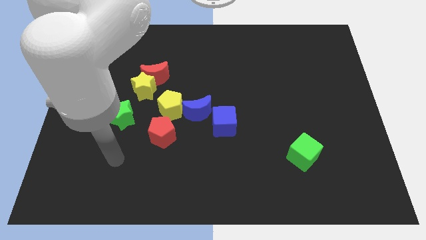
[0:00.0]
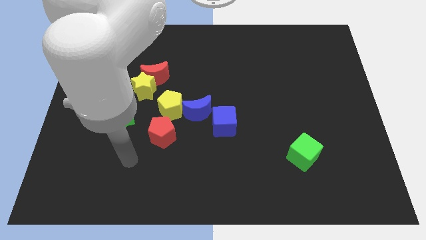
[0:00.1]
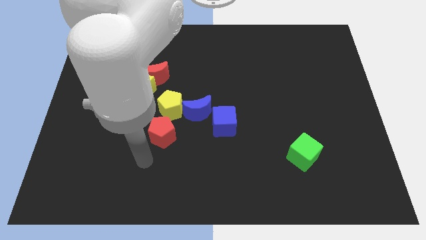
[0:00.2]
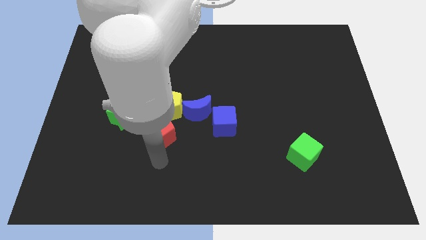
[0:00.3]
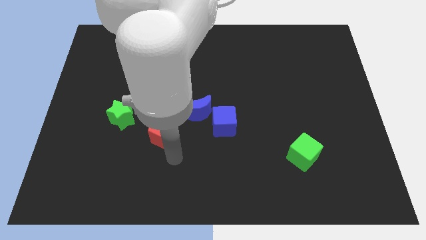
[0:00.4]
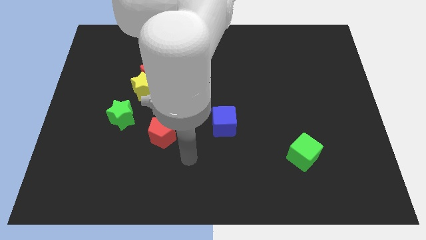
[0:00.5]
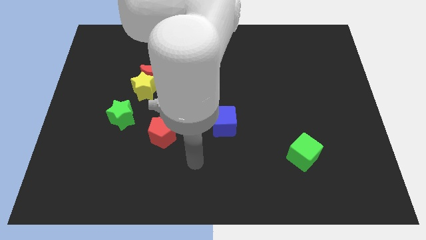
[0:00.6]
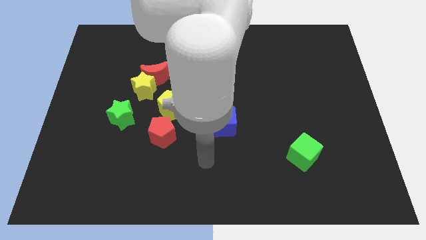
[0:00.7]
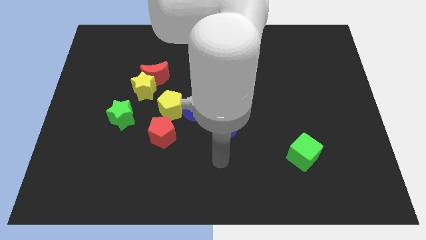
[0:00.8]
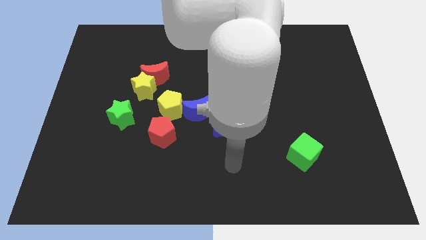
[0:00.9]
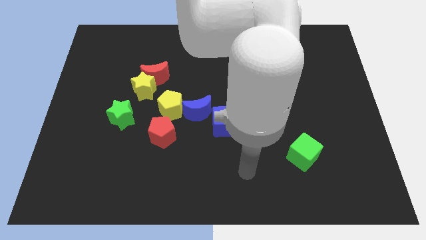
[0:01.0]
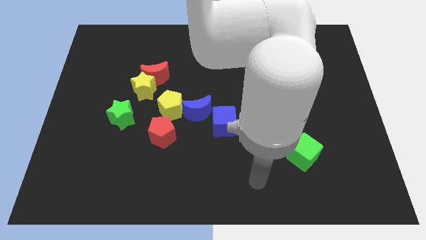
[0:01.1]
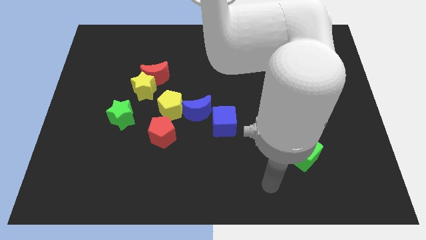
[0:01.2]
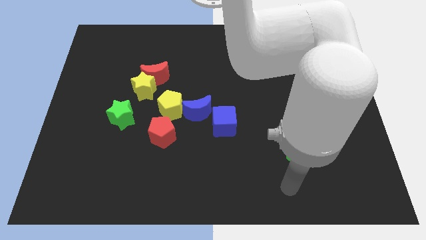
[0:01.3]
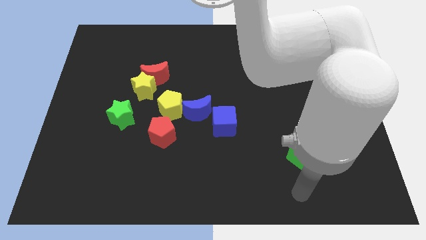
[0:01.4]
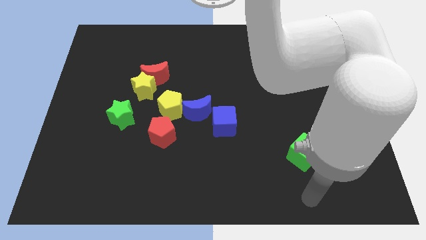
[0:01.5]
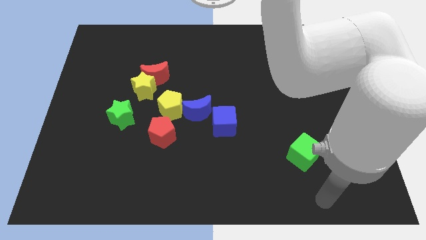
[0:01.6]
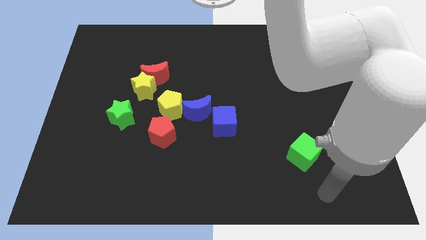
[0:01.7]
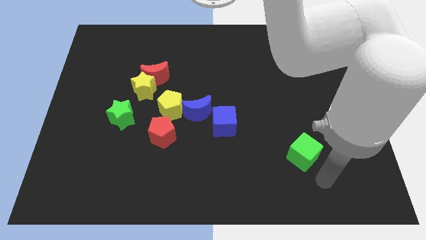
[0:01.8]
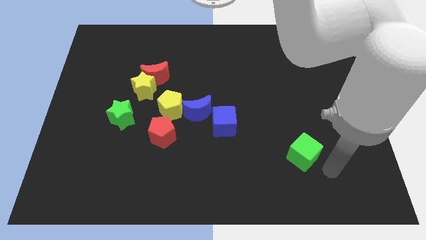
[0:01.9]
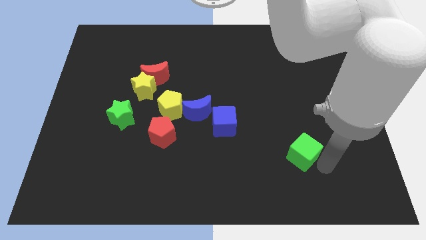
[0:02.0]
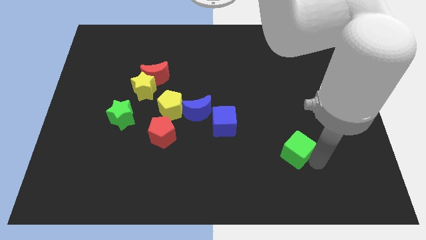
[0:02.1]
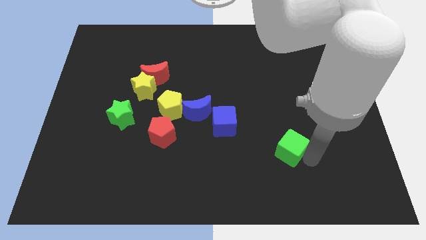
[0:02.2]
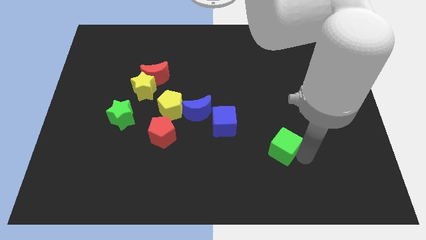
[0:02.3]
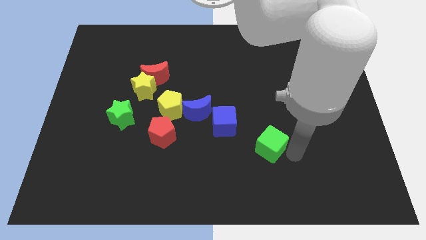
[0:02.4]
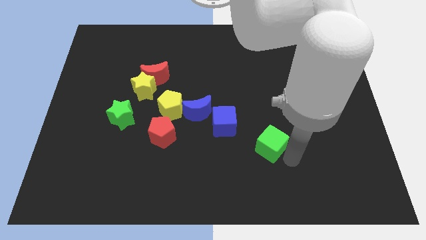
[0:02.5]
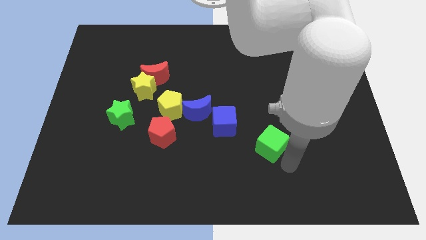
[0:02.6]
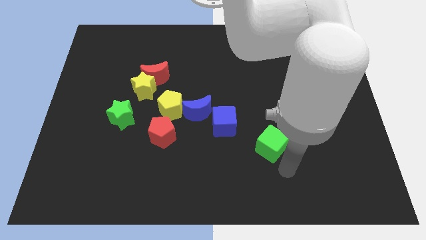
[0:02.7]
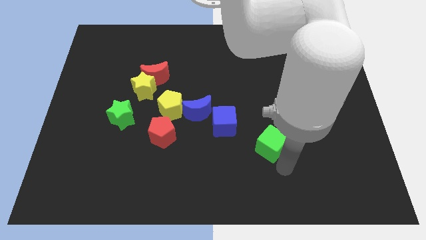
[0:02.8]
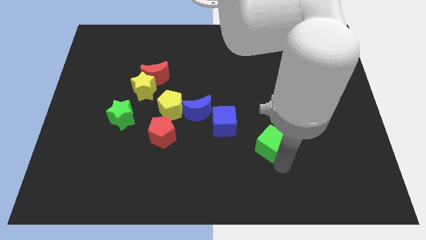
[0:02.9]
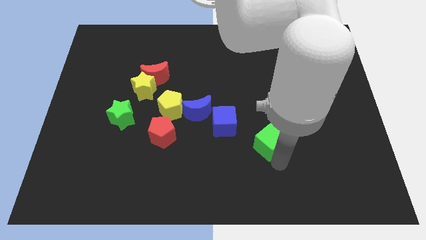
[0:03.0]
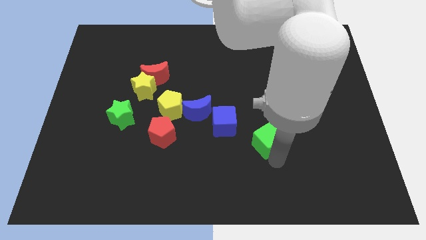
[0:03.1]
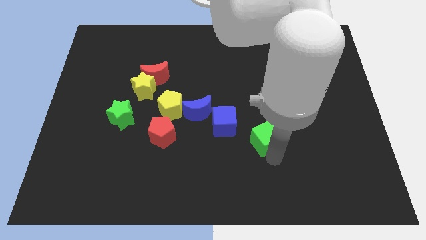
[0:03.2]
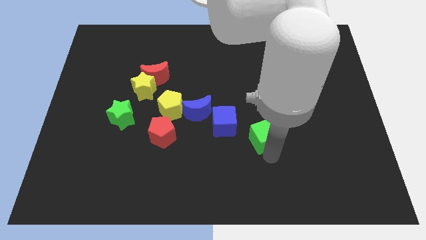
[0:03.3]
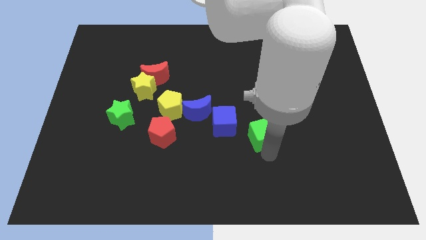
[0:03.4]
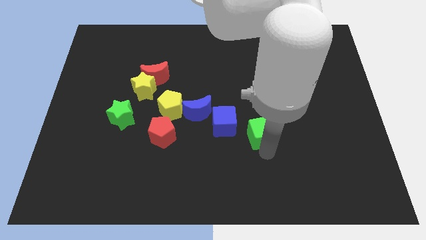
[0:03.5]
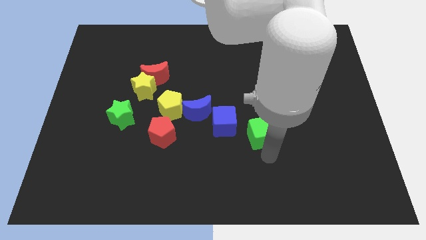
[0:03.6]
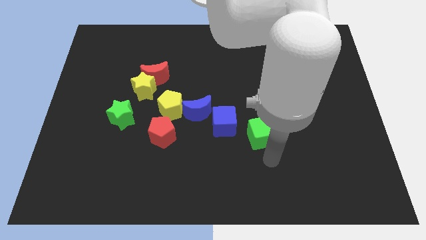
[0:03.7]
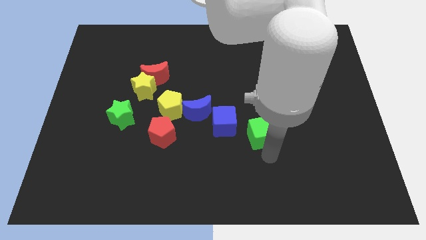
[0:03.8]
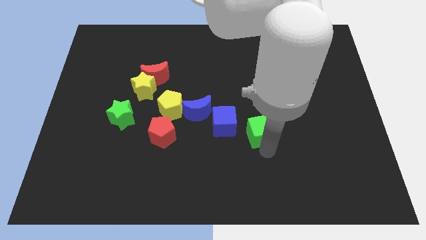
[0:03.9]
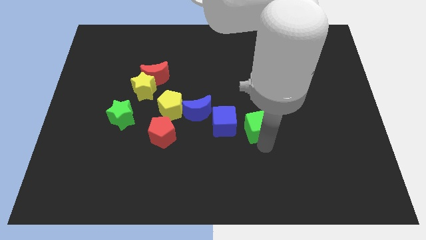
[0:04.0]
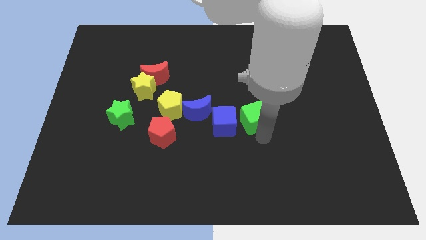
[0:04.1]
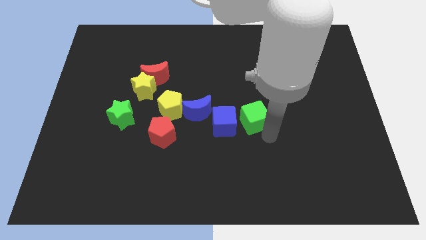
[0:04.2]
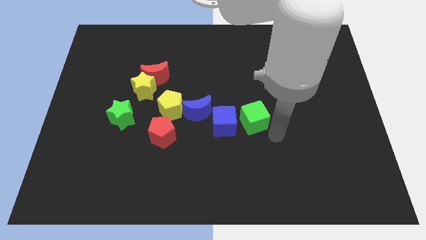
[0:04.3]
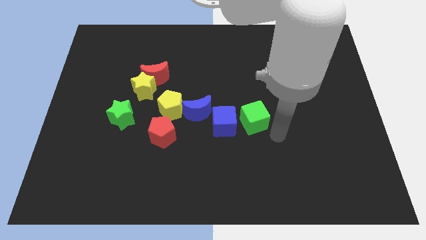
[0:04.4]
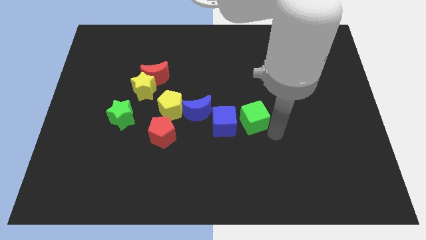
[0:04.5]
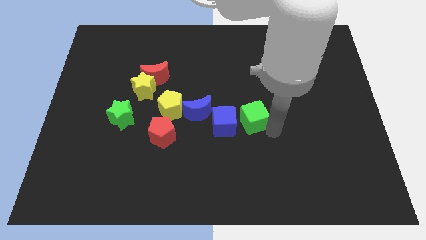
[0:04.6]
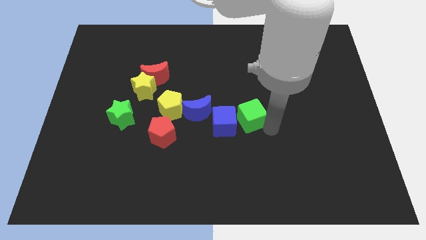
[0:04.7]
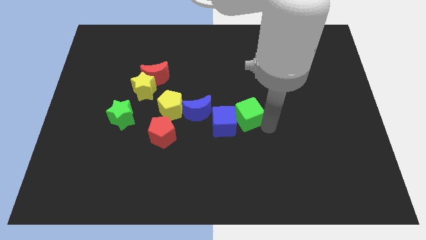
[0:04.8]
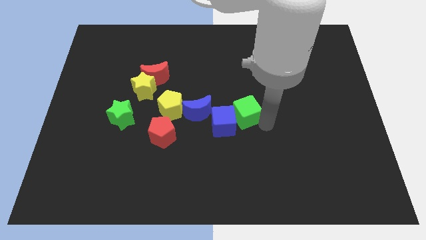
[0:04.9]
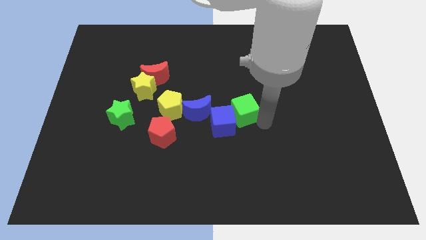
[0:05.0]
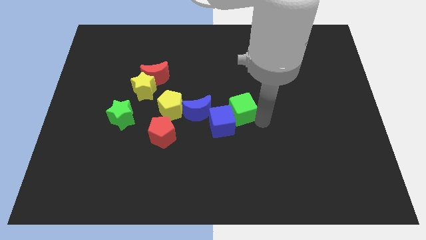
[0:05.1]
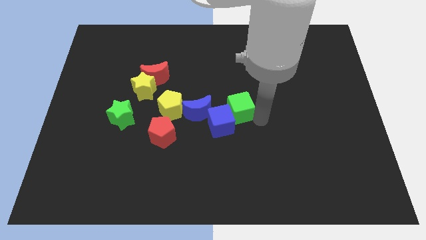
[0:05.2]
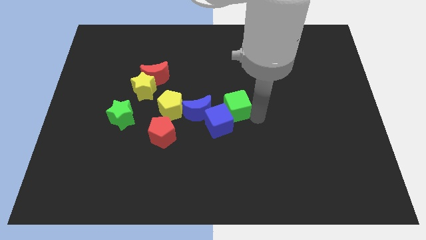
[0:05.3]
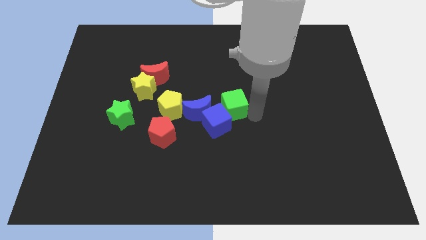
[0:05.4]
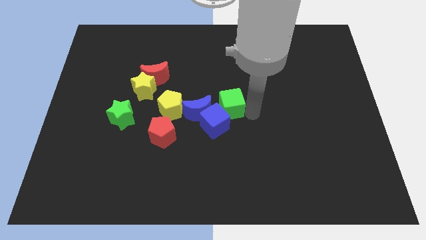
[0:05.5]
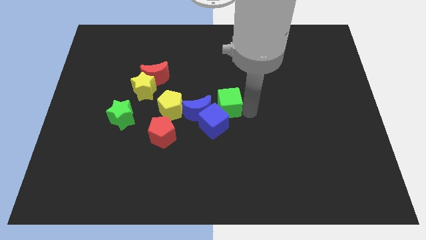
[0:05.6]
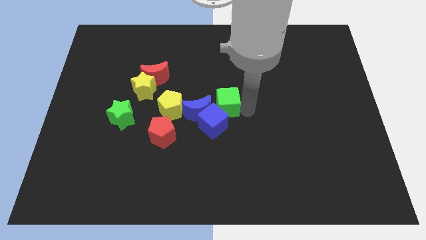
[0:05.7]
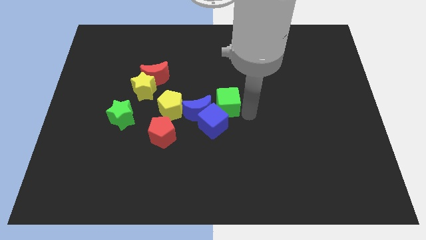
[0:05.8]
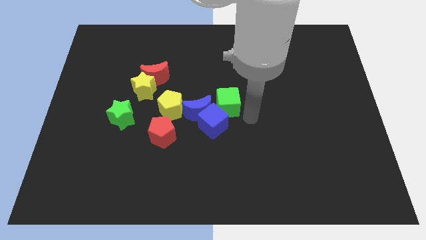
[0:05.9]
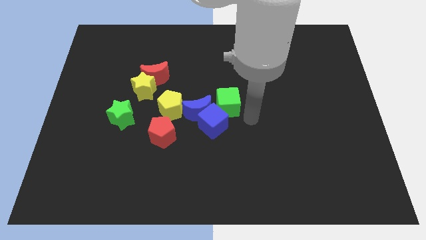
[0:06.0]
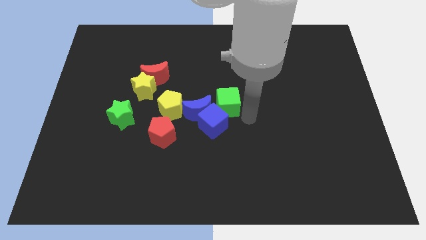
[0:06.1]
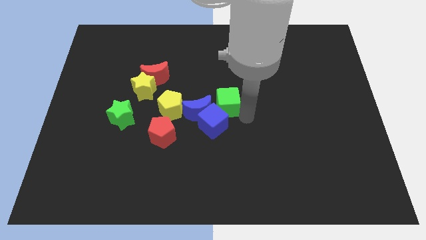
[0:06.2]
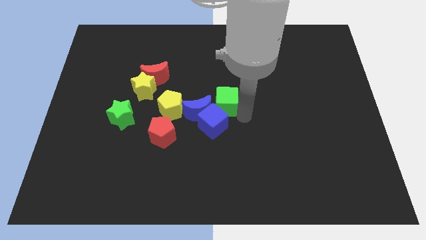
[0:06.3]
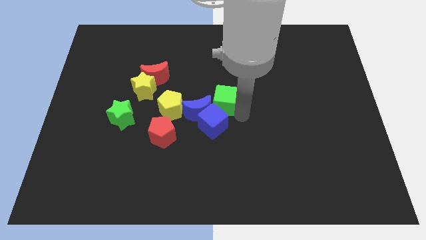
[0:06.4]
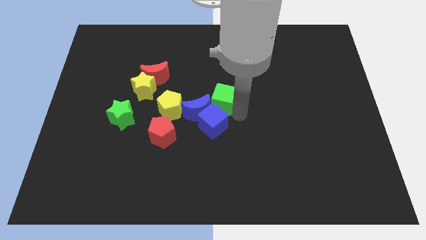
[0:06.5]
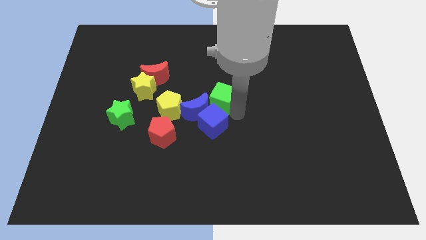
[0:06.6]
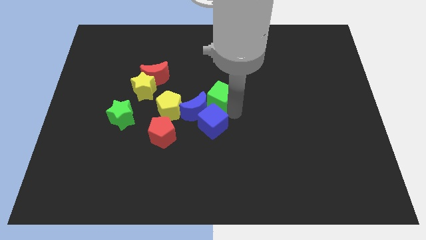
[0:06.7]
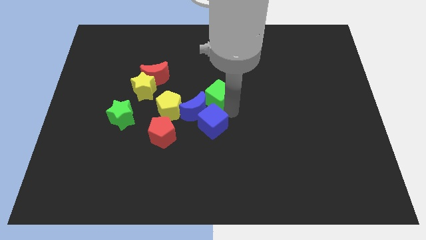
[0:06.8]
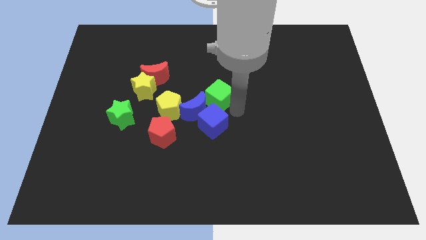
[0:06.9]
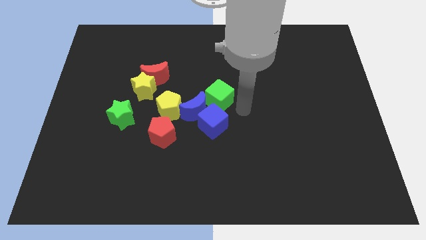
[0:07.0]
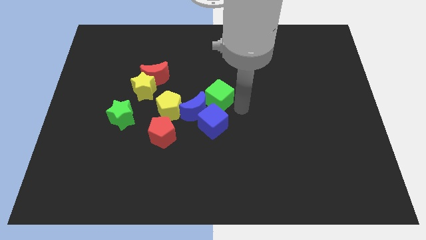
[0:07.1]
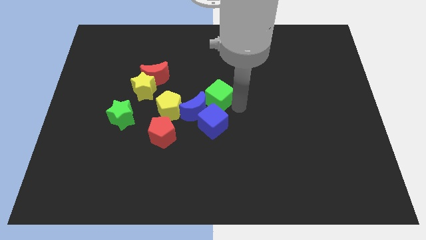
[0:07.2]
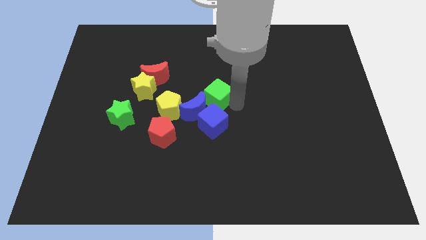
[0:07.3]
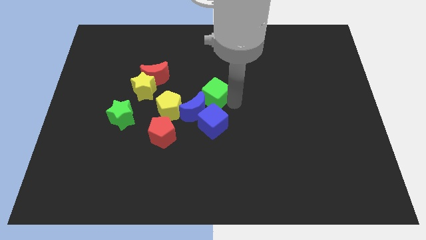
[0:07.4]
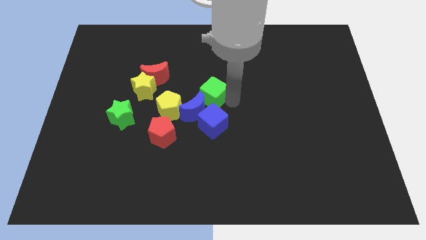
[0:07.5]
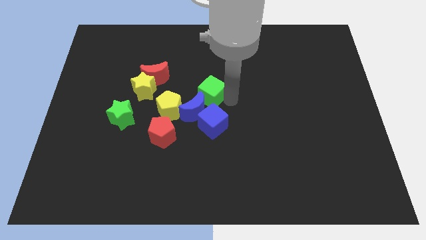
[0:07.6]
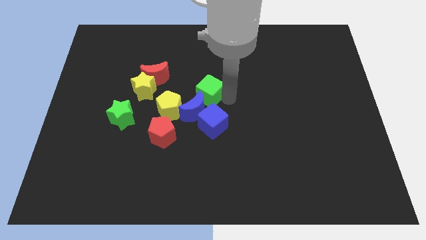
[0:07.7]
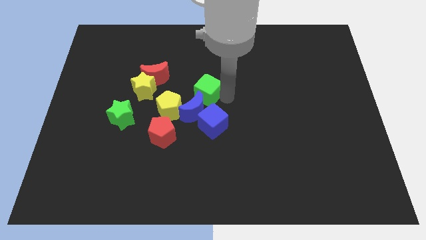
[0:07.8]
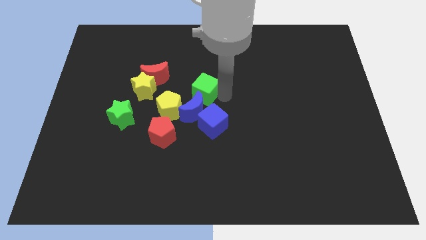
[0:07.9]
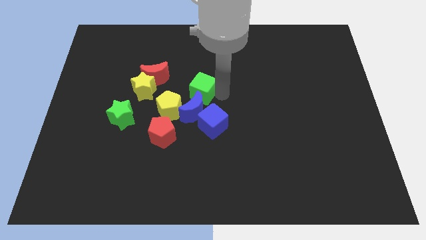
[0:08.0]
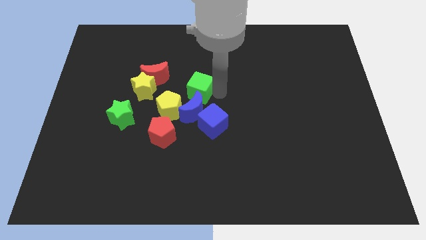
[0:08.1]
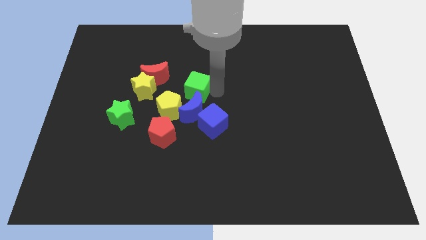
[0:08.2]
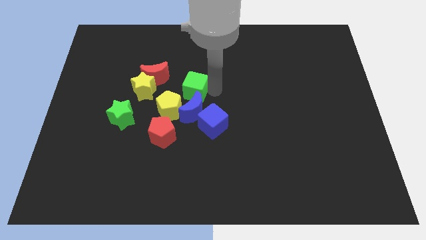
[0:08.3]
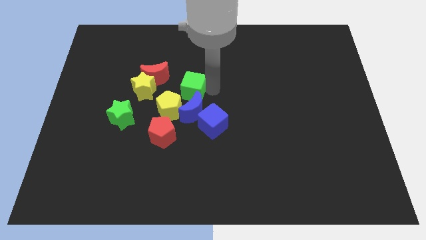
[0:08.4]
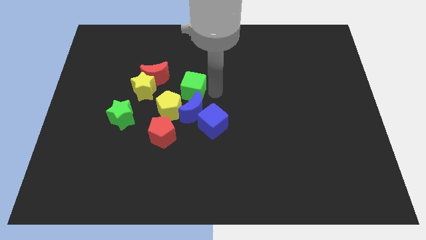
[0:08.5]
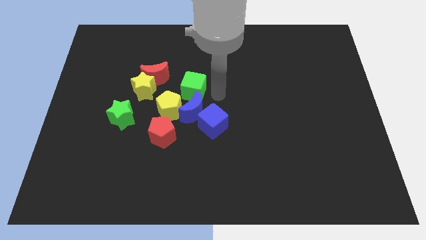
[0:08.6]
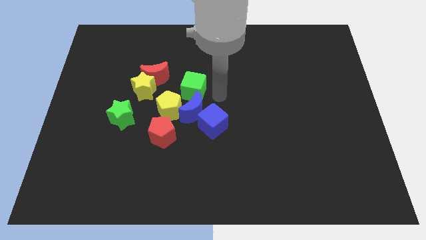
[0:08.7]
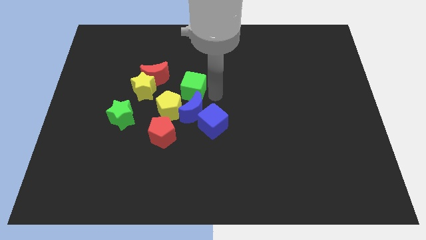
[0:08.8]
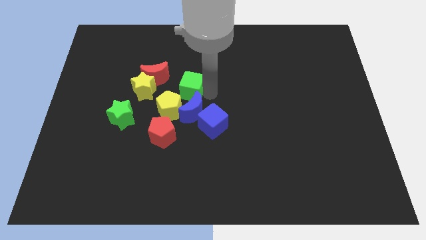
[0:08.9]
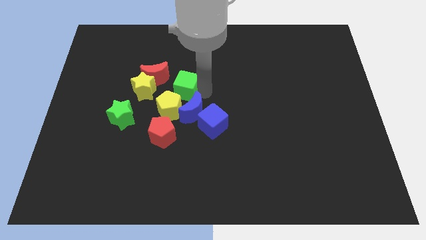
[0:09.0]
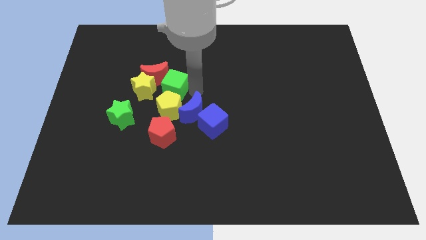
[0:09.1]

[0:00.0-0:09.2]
slide the green cube to the red moon
